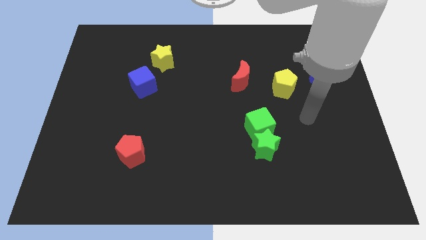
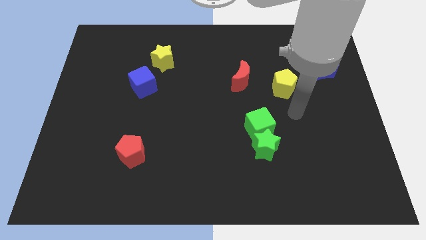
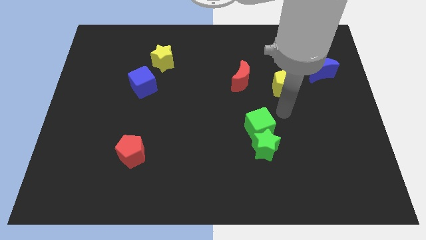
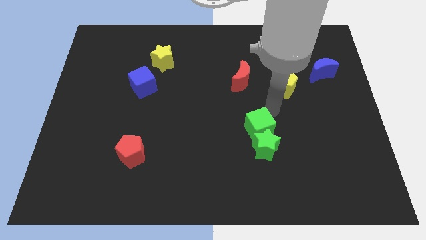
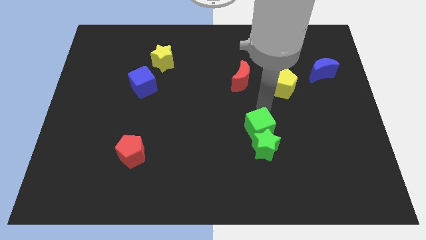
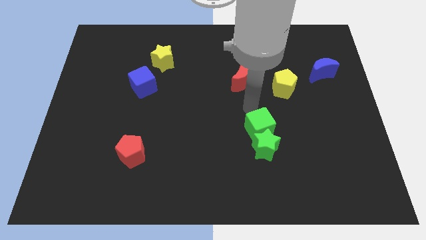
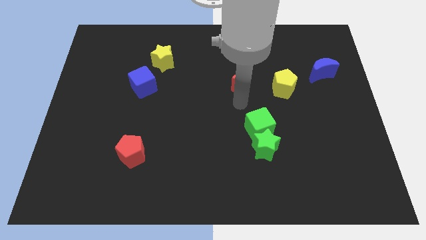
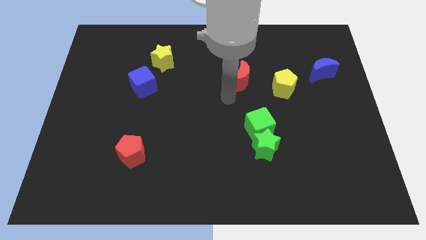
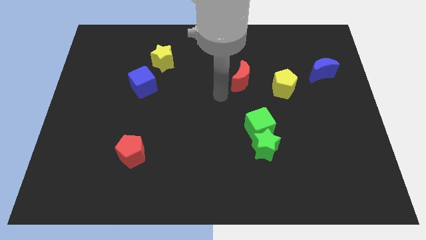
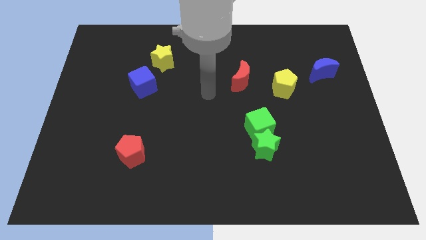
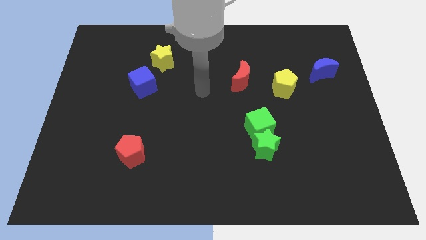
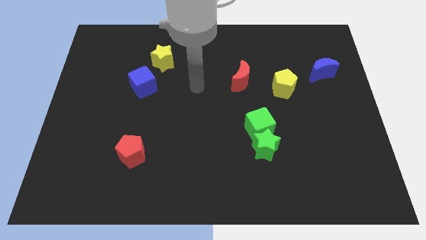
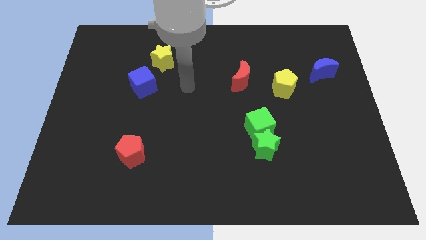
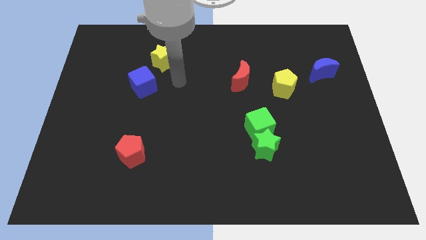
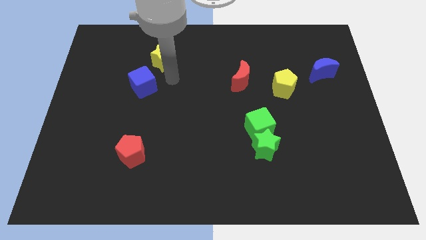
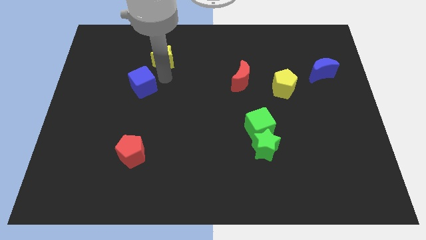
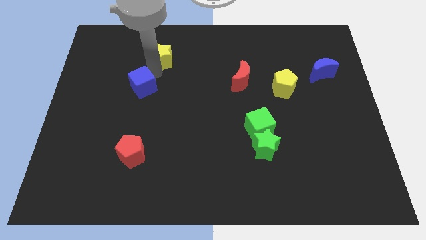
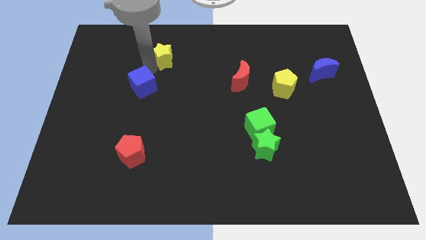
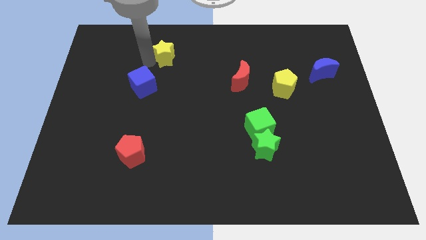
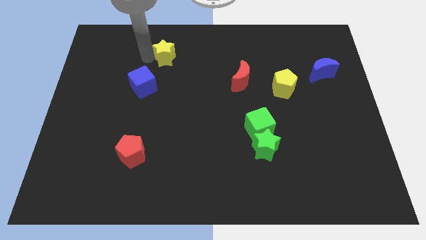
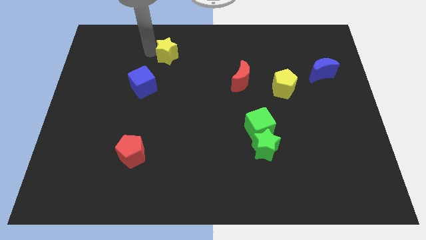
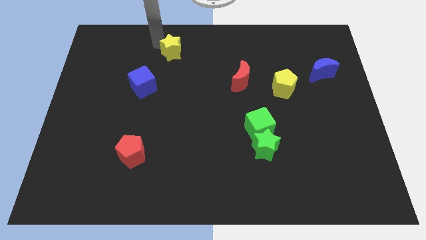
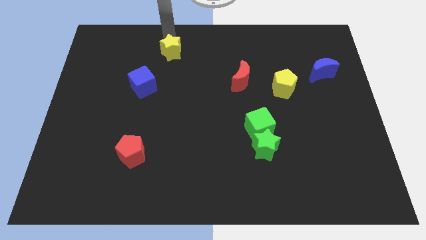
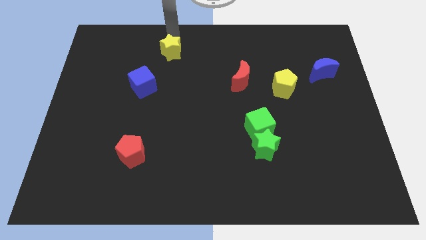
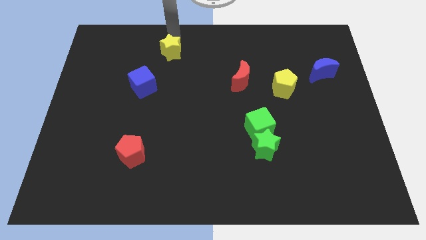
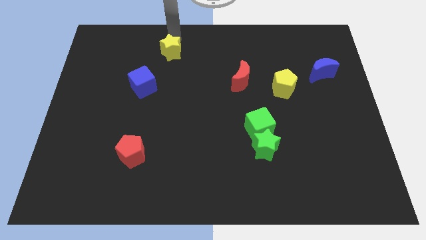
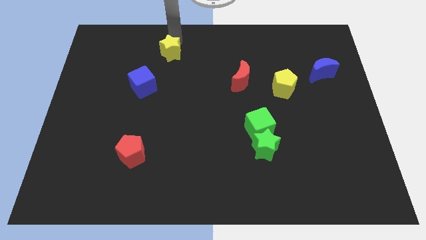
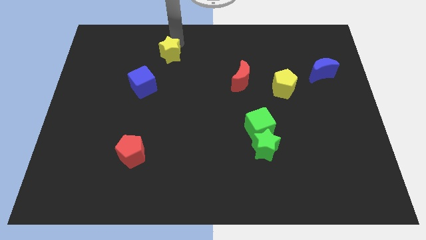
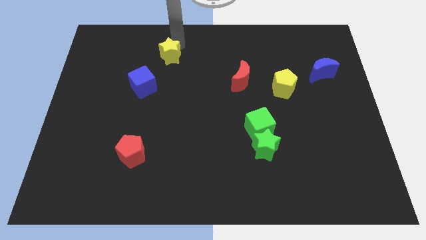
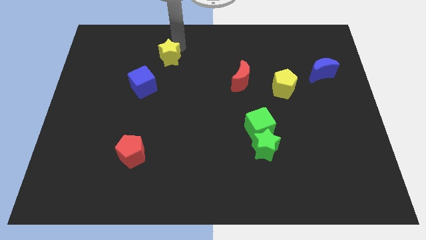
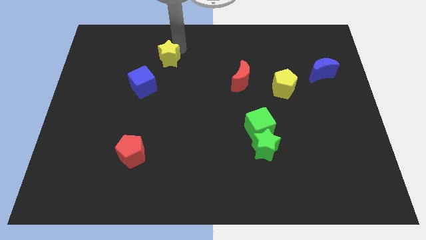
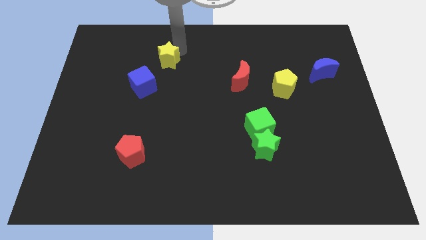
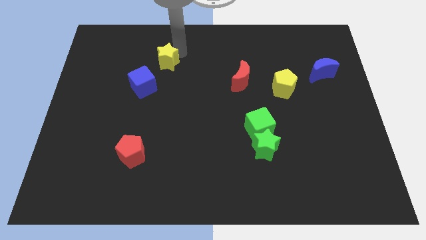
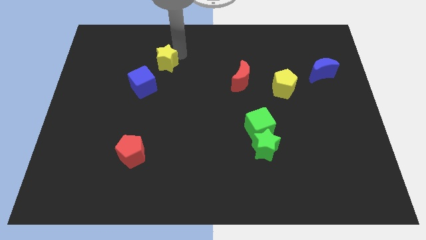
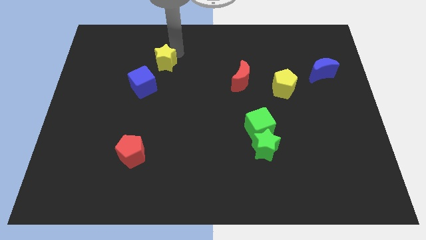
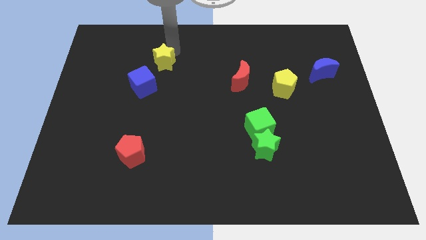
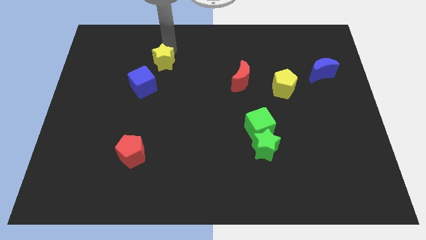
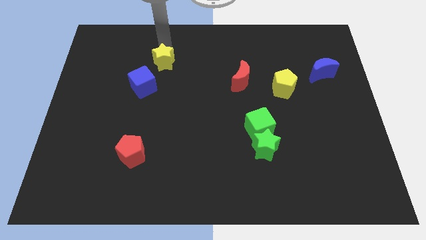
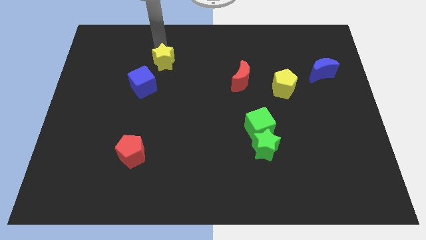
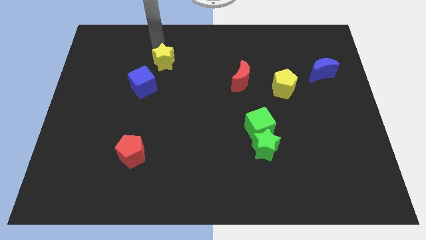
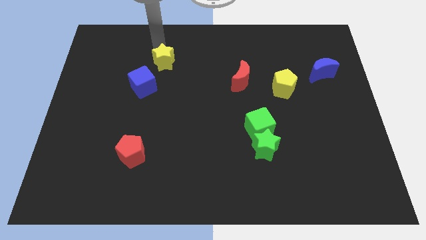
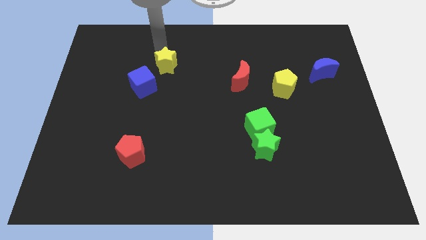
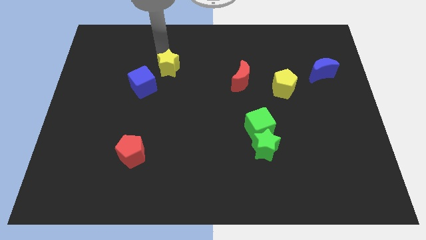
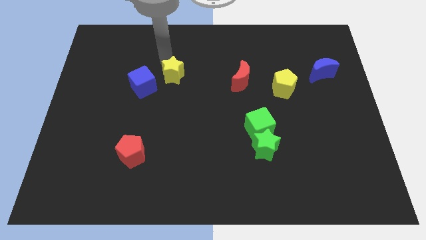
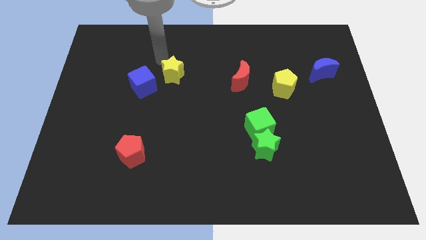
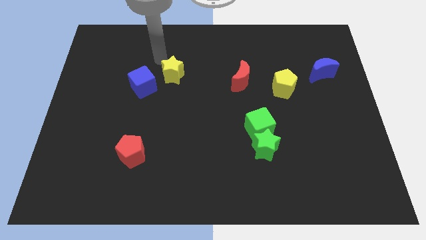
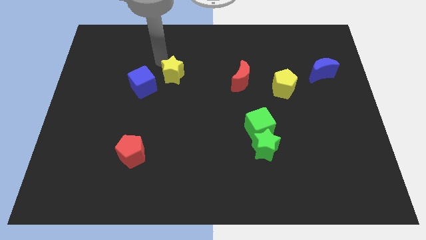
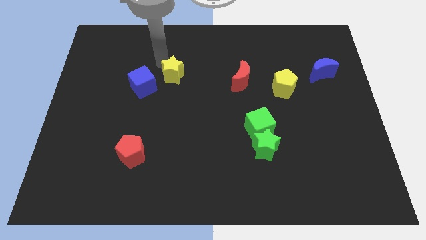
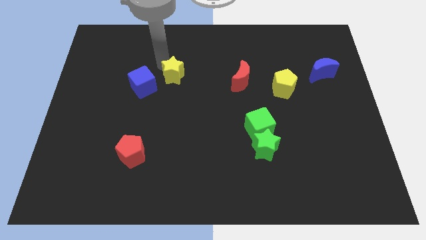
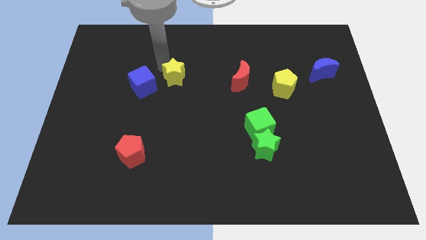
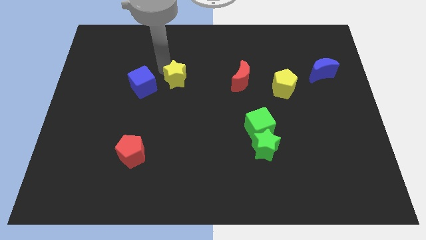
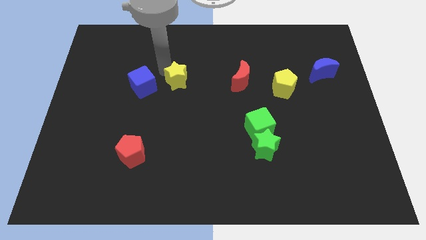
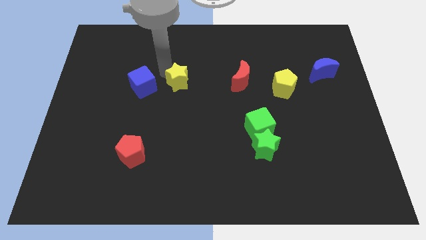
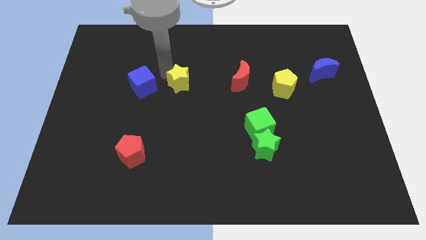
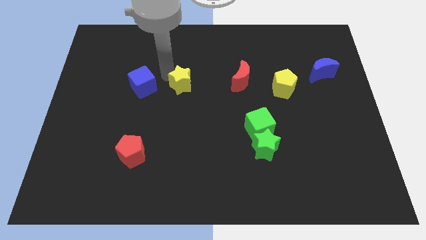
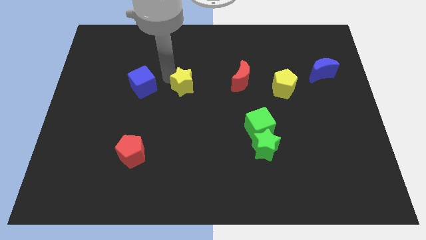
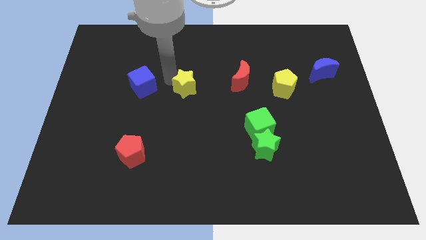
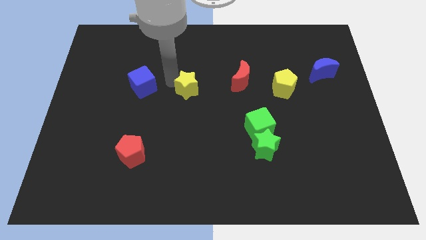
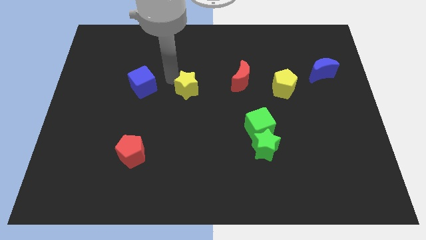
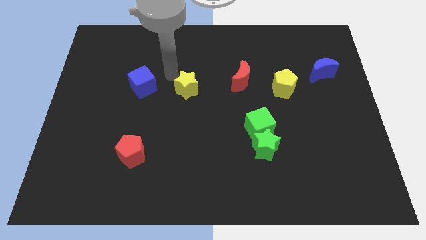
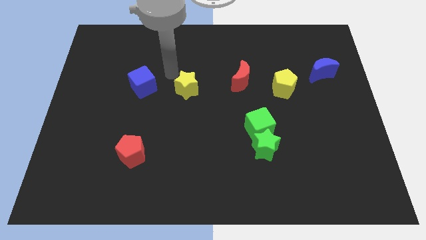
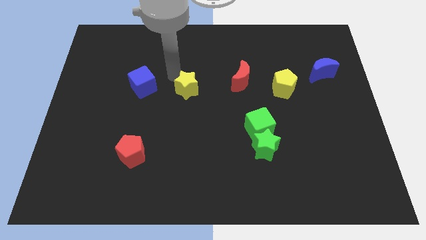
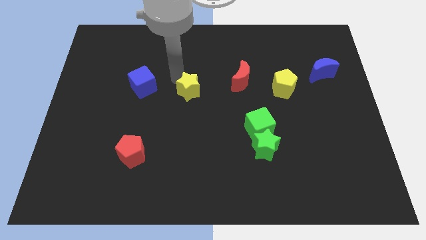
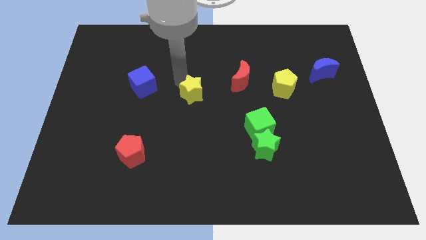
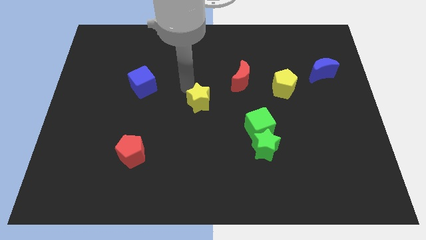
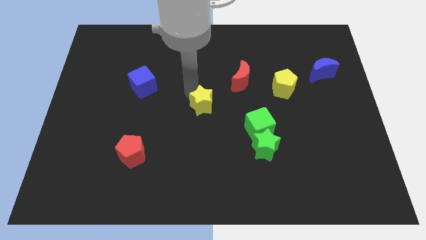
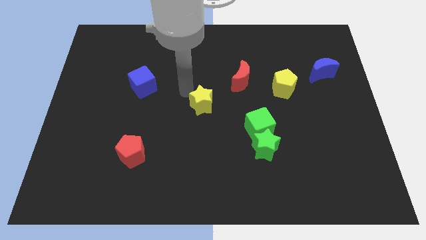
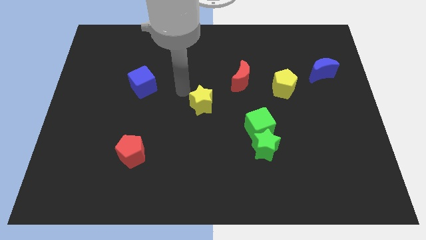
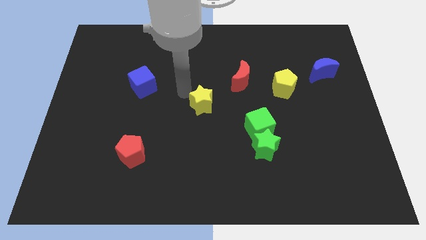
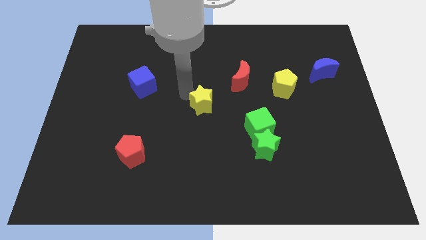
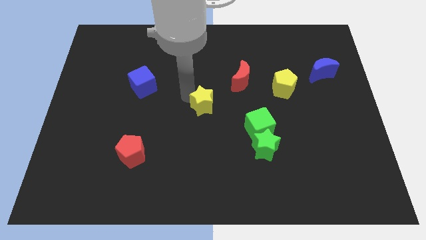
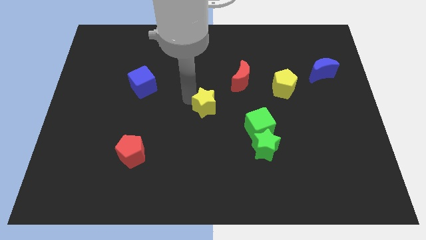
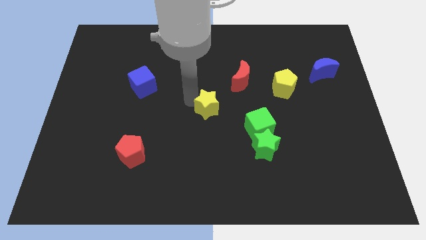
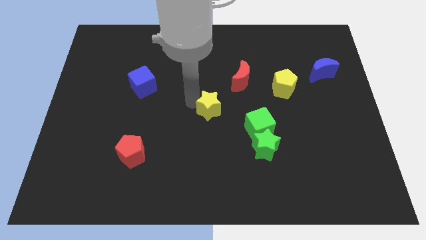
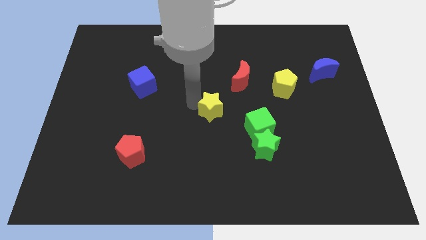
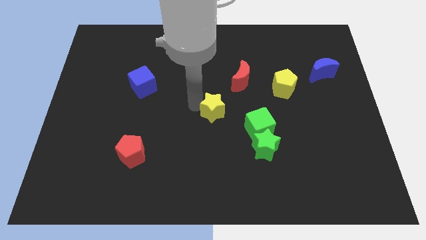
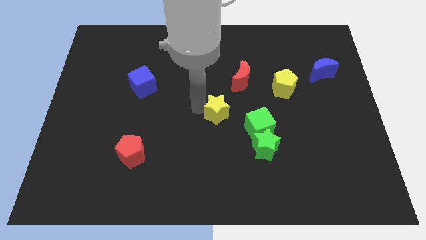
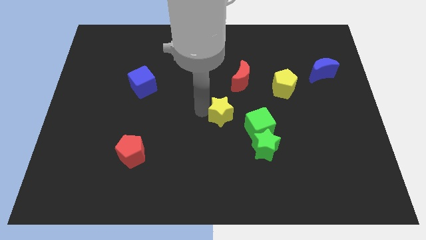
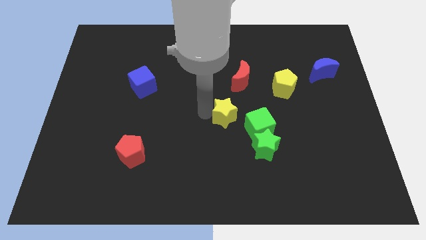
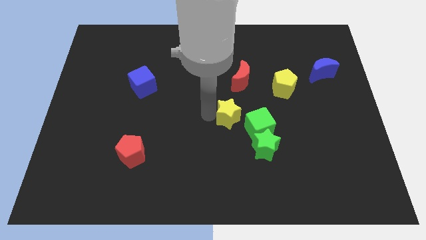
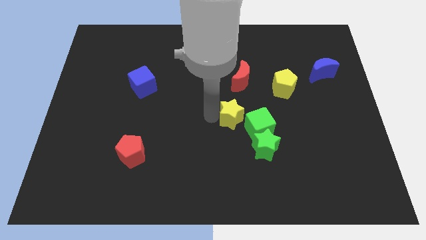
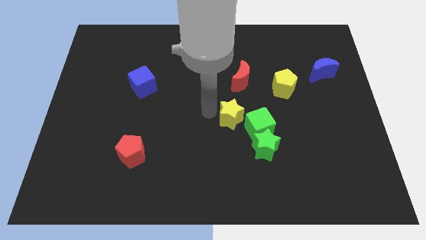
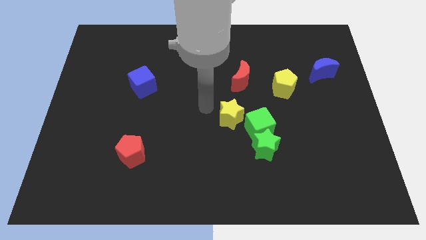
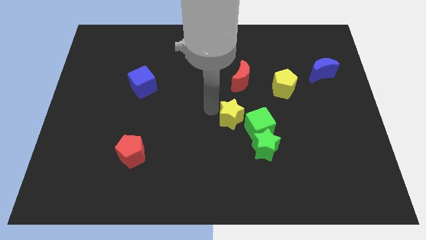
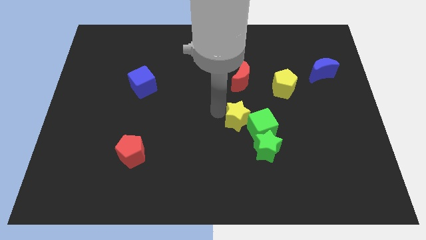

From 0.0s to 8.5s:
put the yellow star next to the green cube
